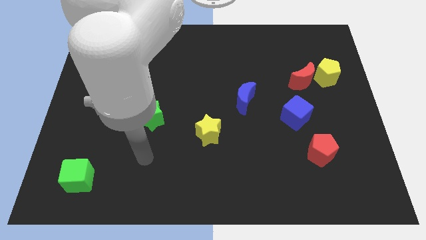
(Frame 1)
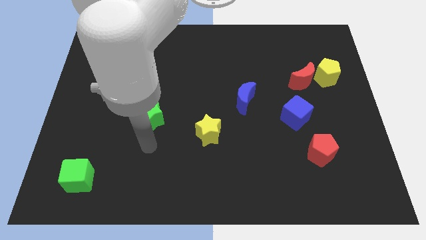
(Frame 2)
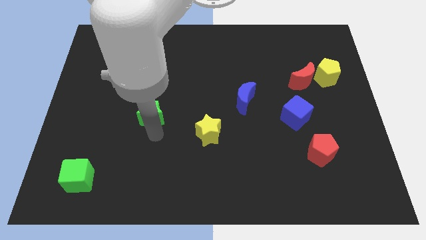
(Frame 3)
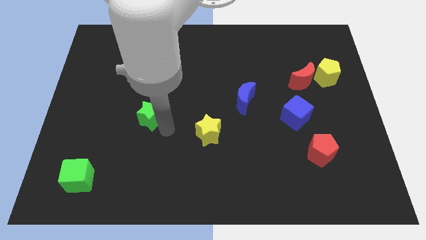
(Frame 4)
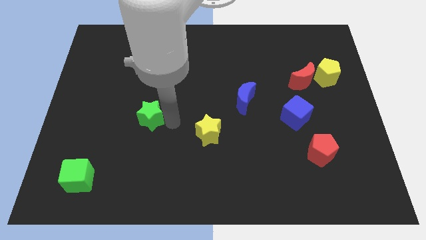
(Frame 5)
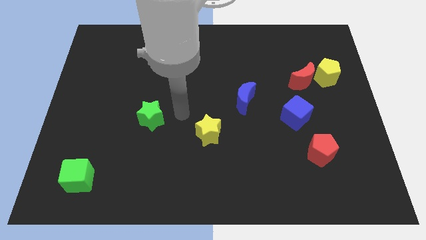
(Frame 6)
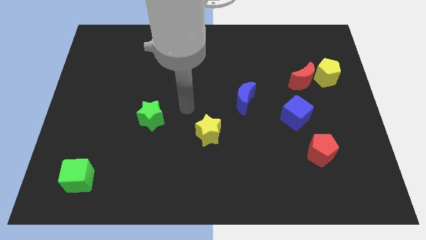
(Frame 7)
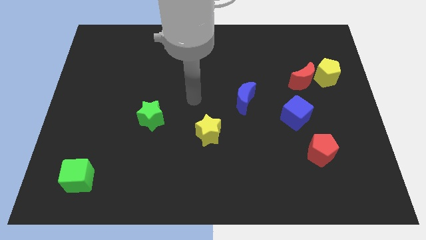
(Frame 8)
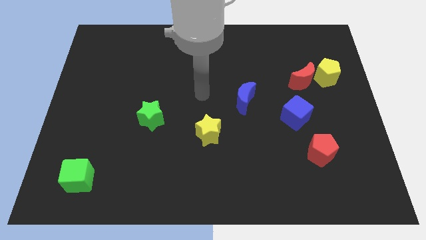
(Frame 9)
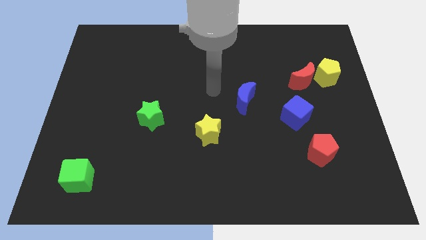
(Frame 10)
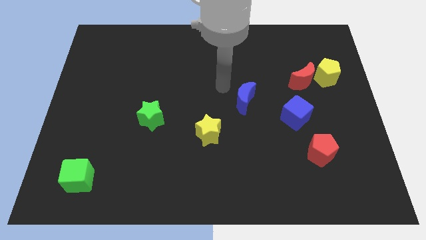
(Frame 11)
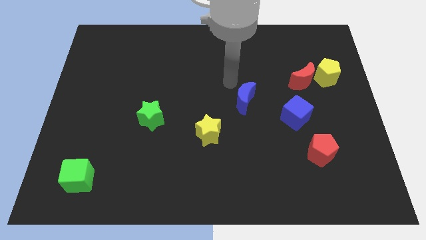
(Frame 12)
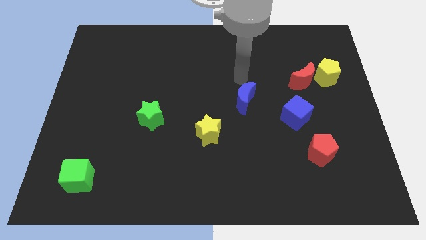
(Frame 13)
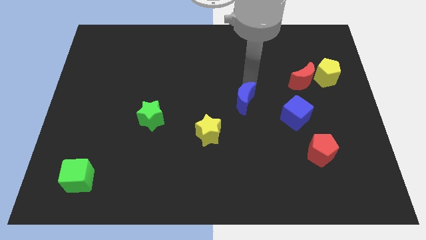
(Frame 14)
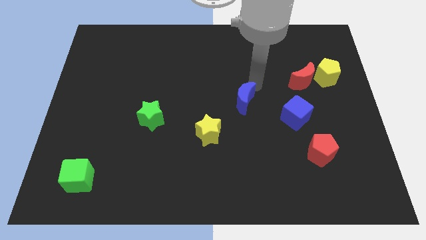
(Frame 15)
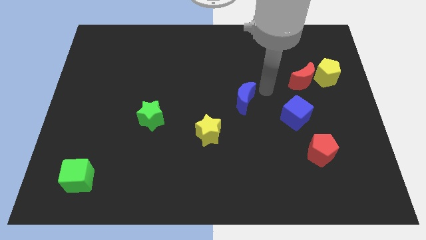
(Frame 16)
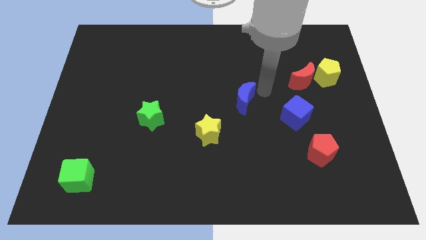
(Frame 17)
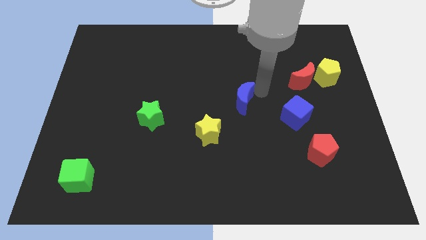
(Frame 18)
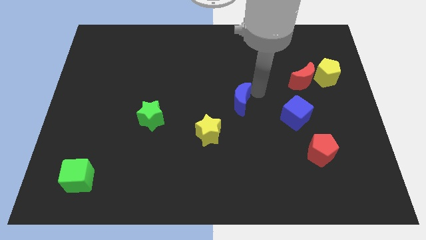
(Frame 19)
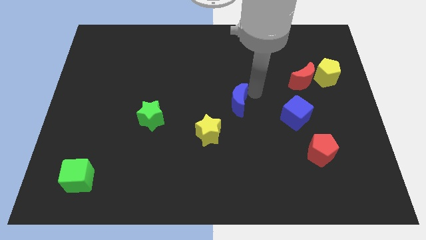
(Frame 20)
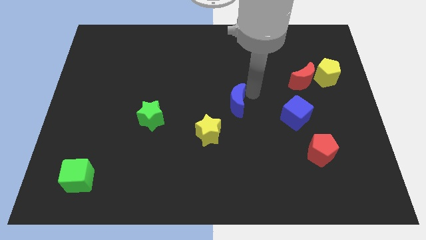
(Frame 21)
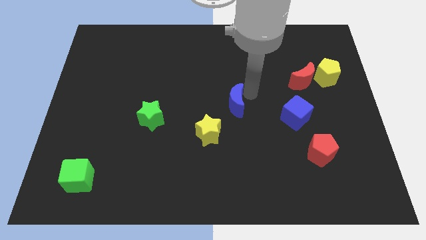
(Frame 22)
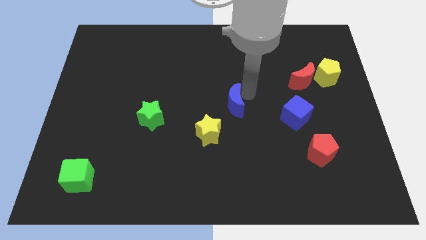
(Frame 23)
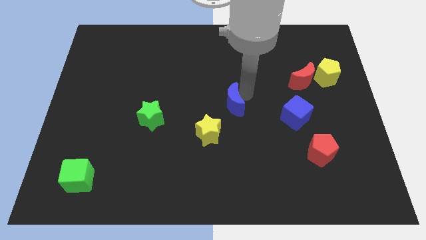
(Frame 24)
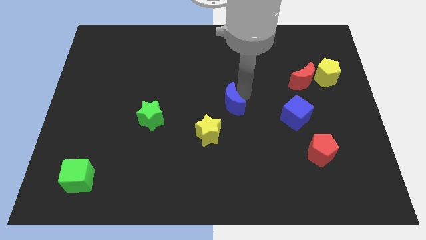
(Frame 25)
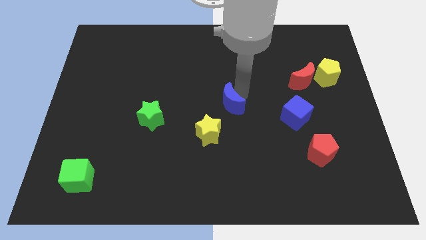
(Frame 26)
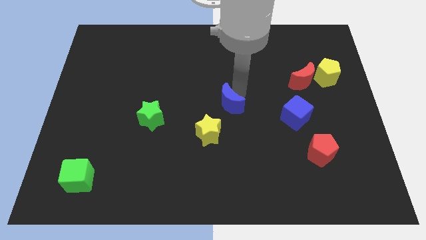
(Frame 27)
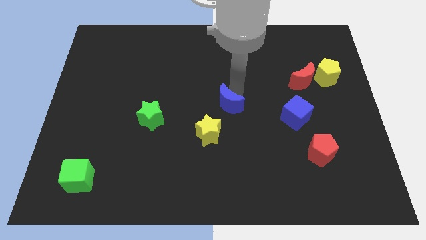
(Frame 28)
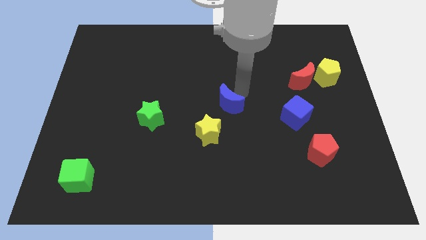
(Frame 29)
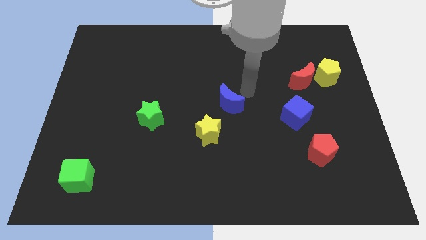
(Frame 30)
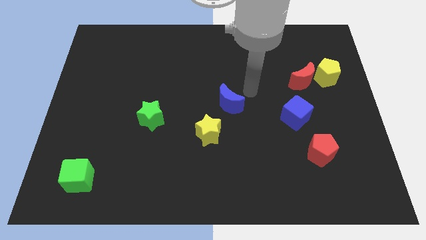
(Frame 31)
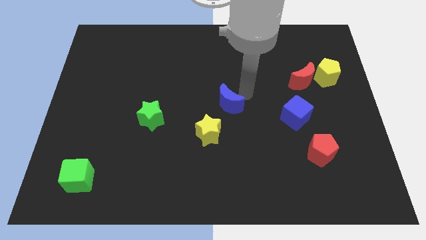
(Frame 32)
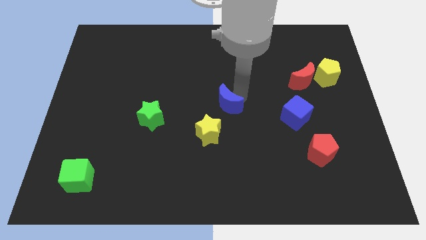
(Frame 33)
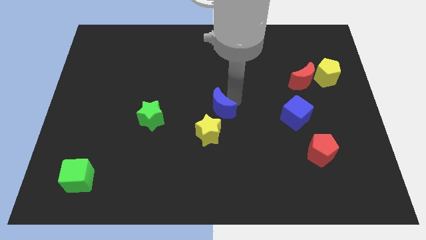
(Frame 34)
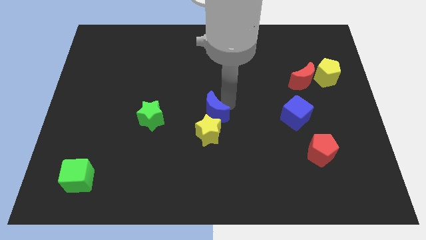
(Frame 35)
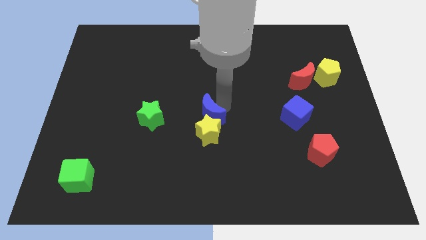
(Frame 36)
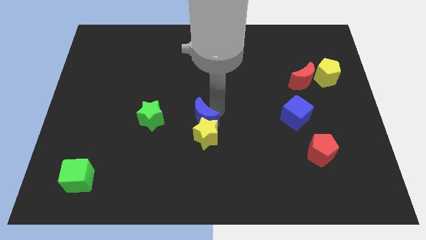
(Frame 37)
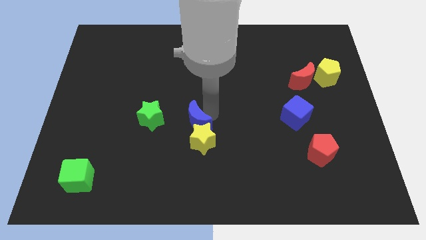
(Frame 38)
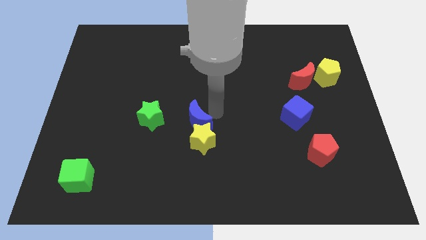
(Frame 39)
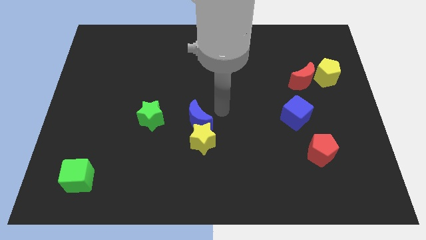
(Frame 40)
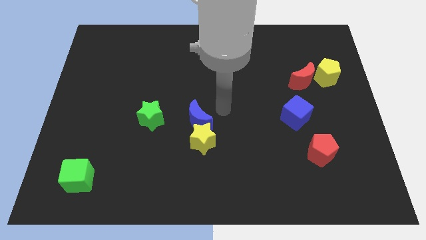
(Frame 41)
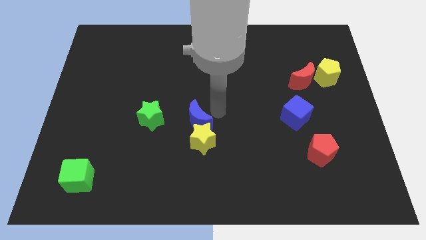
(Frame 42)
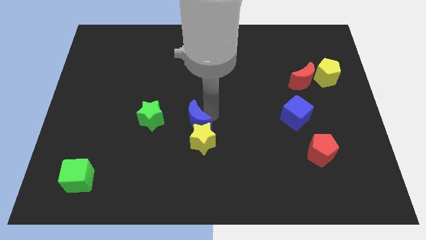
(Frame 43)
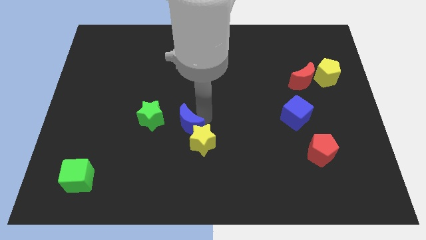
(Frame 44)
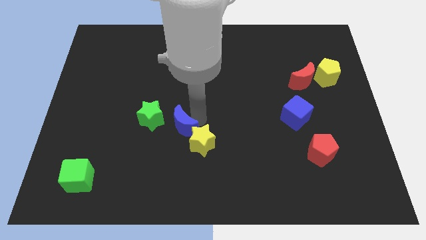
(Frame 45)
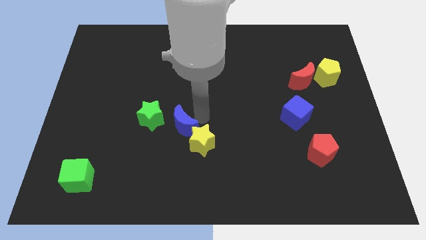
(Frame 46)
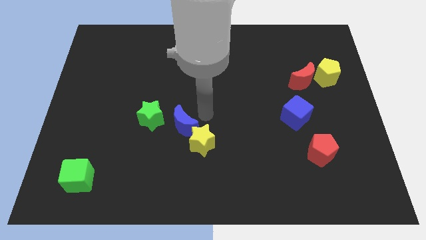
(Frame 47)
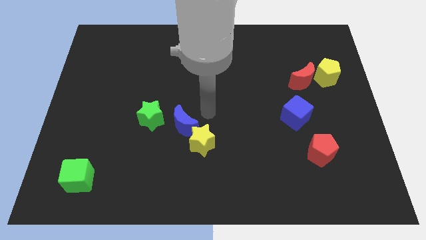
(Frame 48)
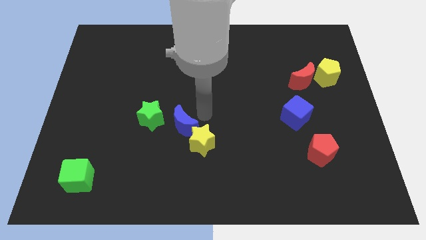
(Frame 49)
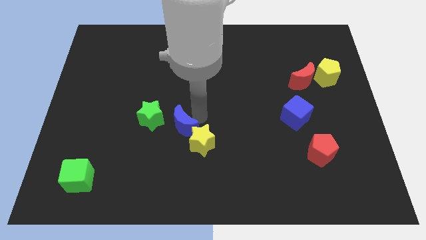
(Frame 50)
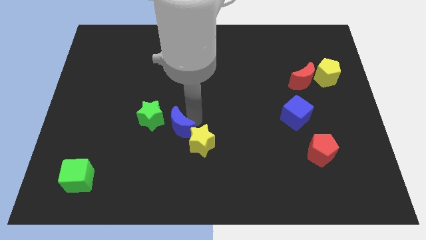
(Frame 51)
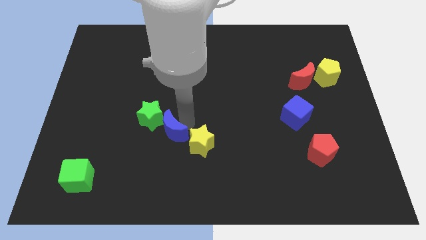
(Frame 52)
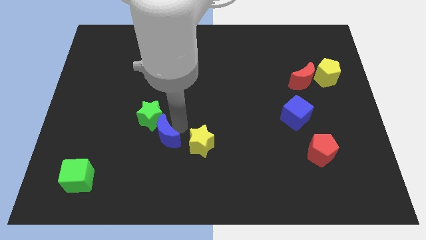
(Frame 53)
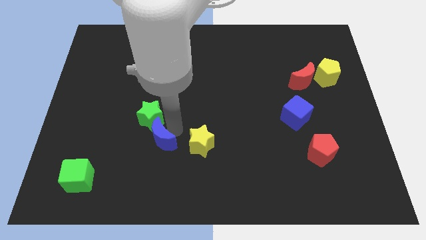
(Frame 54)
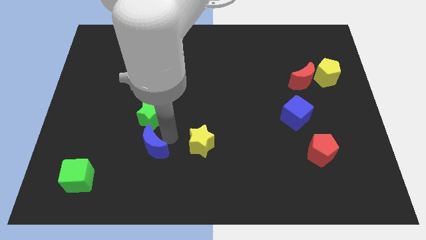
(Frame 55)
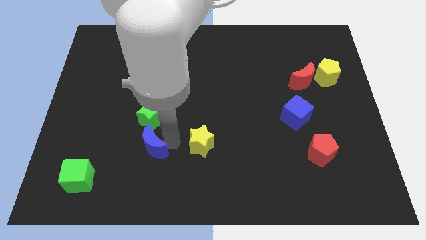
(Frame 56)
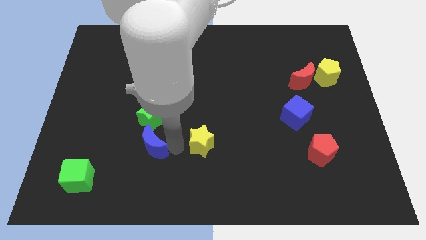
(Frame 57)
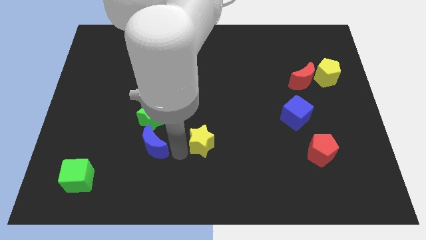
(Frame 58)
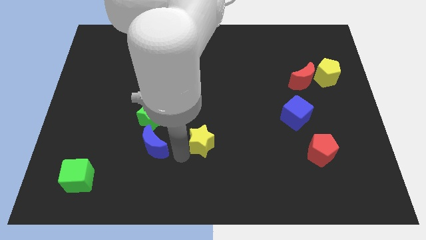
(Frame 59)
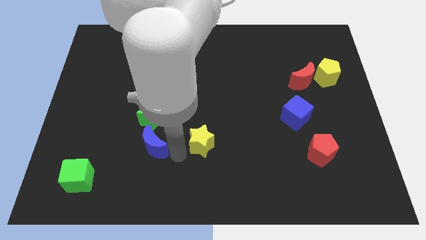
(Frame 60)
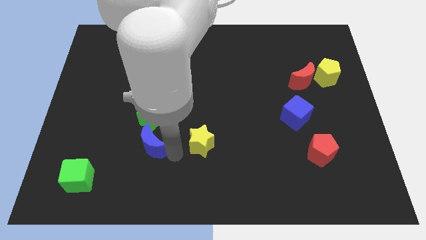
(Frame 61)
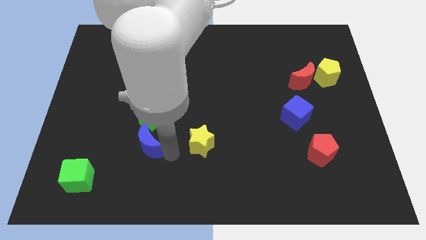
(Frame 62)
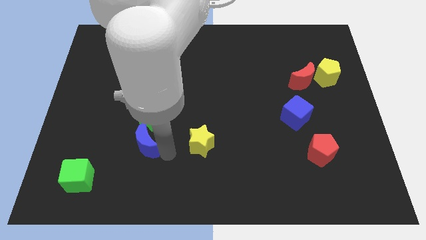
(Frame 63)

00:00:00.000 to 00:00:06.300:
push the blue moon to the bottom left of the green star

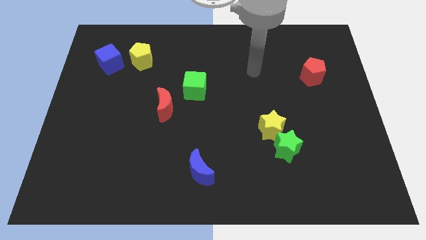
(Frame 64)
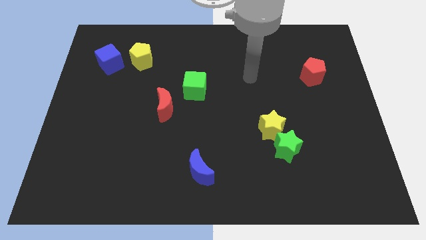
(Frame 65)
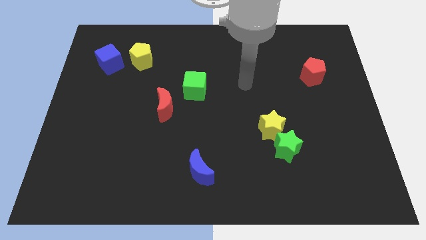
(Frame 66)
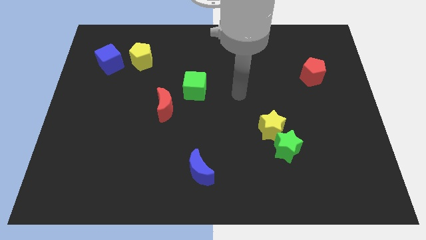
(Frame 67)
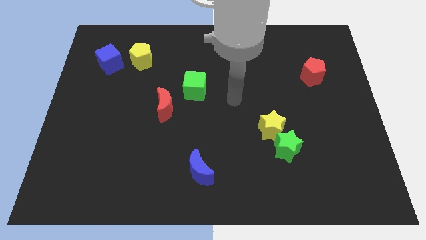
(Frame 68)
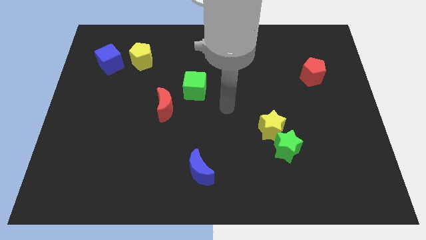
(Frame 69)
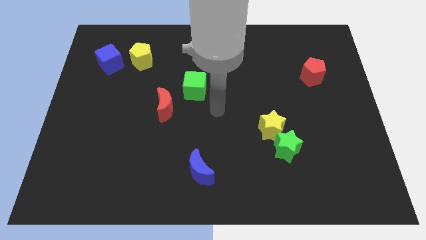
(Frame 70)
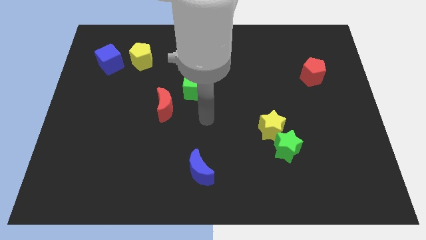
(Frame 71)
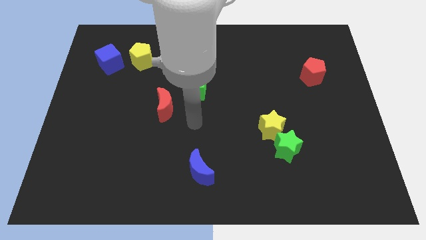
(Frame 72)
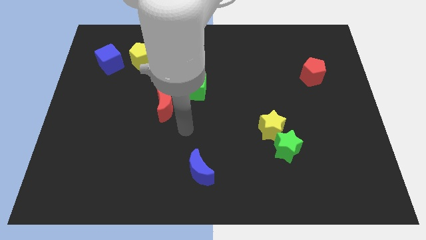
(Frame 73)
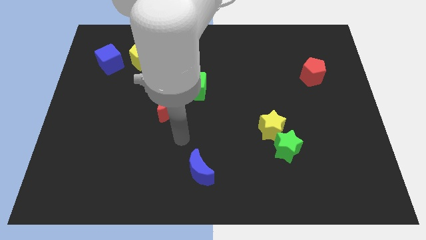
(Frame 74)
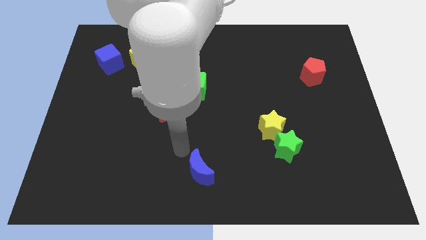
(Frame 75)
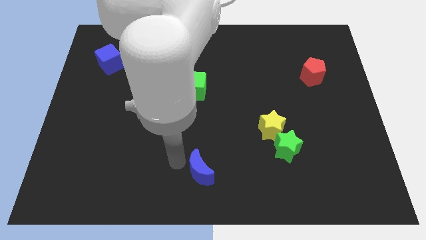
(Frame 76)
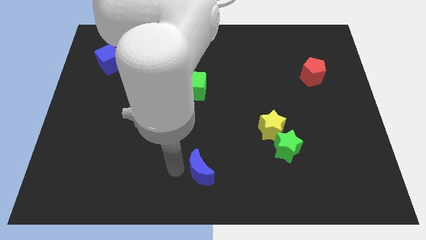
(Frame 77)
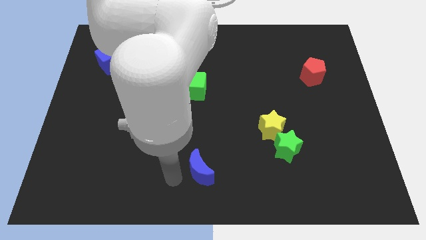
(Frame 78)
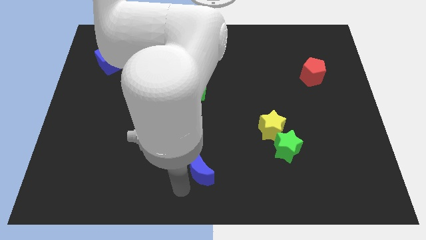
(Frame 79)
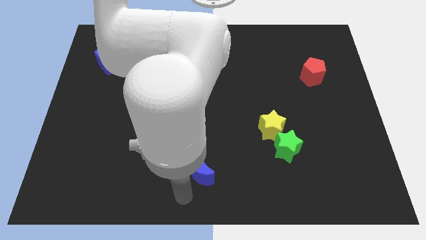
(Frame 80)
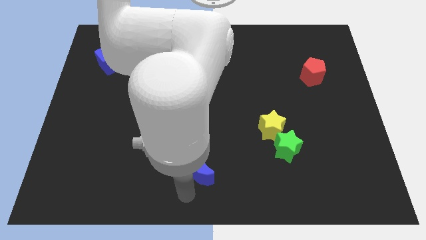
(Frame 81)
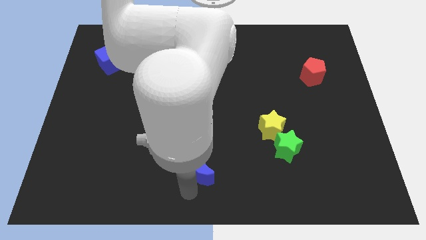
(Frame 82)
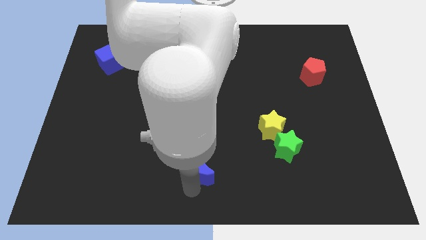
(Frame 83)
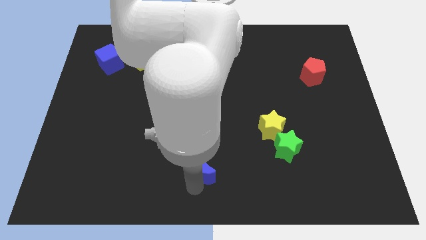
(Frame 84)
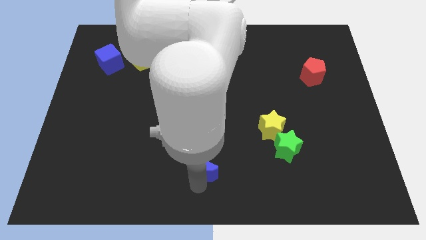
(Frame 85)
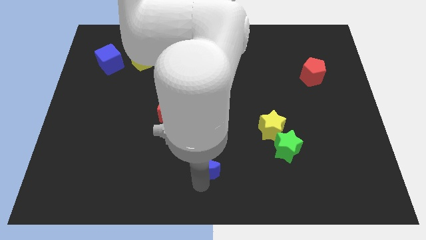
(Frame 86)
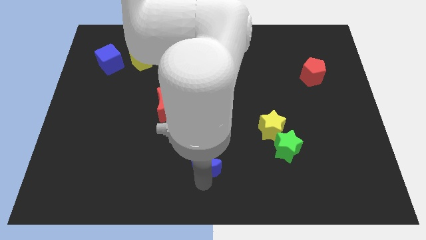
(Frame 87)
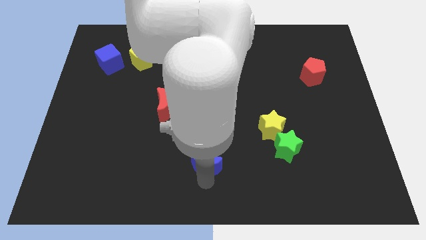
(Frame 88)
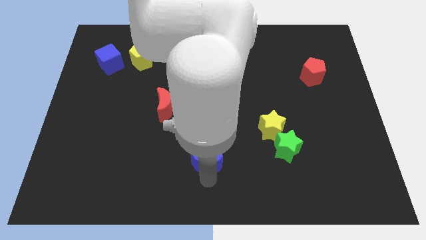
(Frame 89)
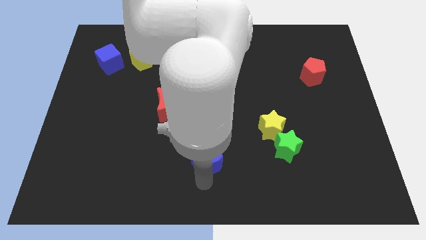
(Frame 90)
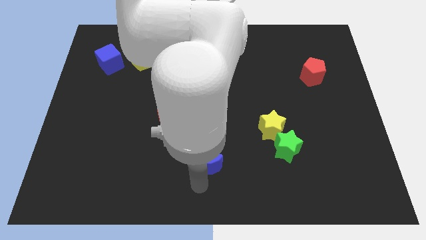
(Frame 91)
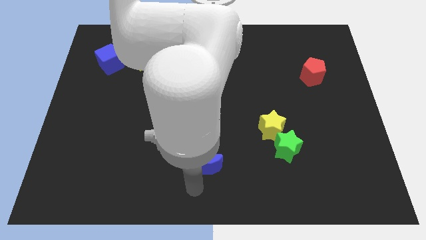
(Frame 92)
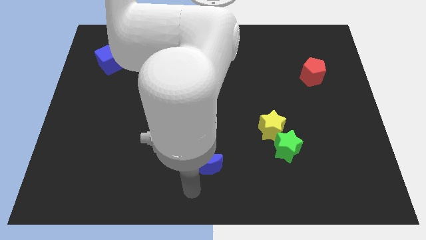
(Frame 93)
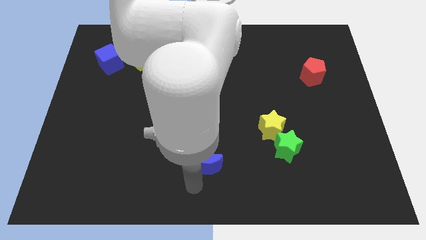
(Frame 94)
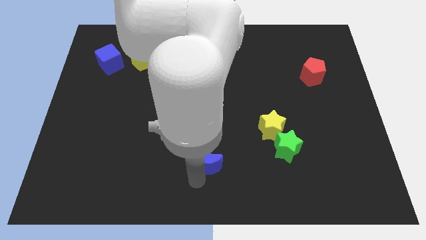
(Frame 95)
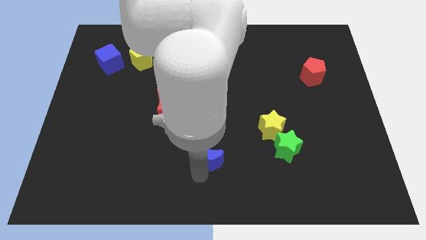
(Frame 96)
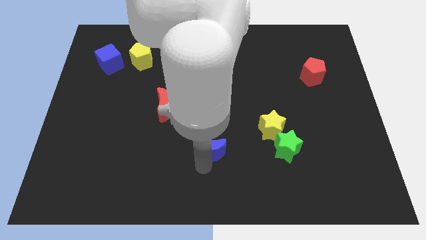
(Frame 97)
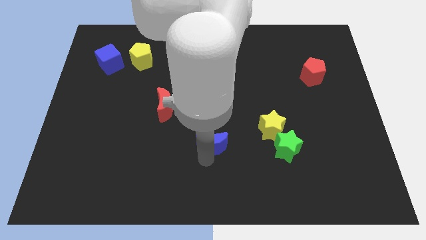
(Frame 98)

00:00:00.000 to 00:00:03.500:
push the blue moon left of the yellow star
